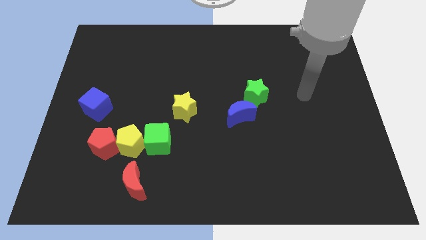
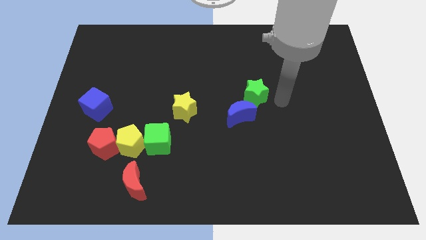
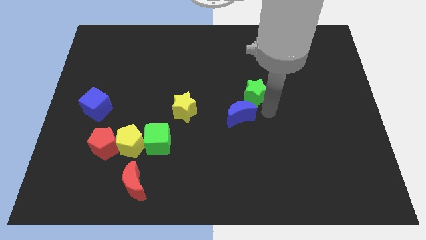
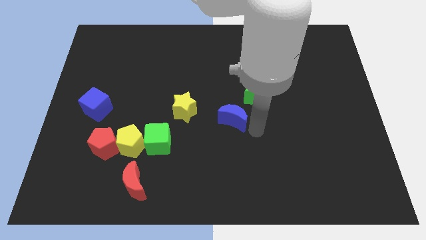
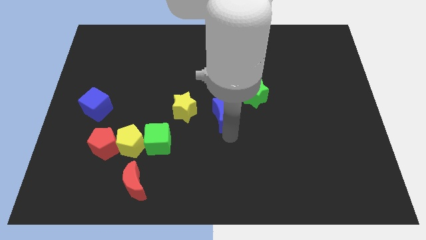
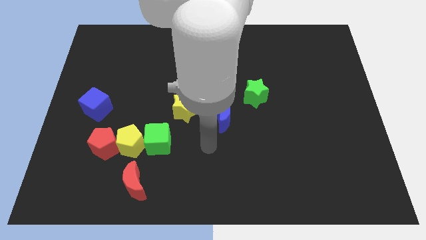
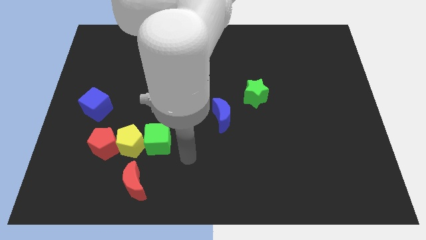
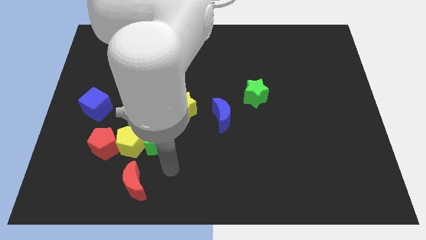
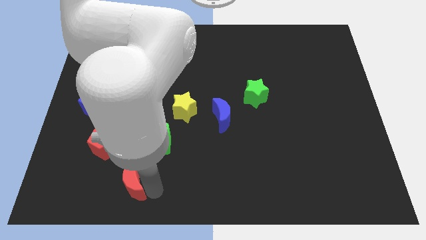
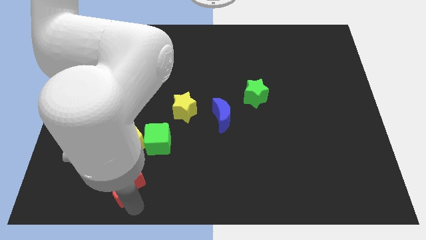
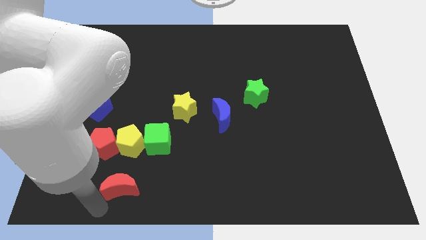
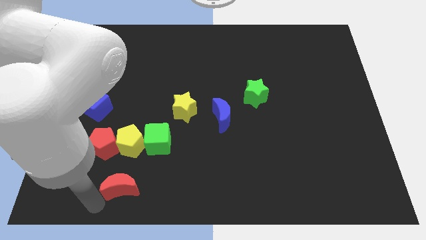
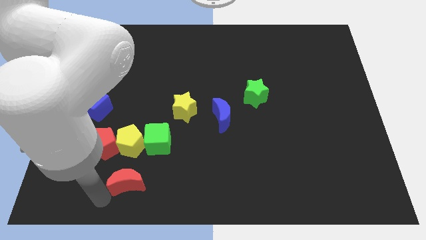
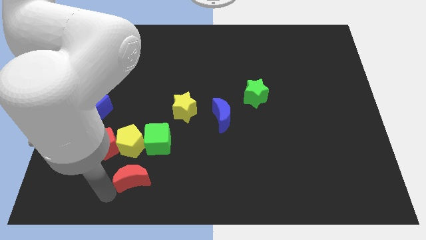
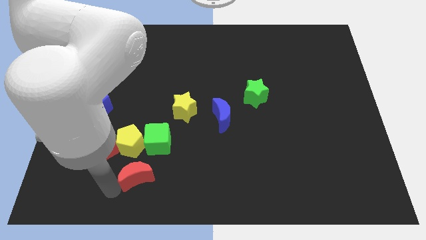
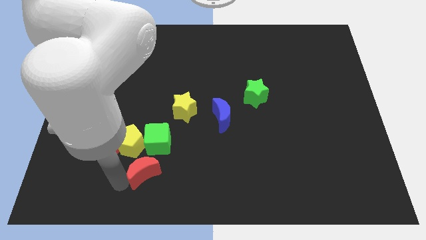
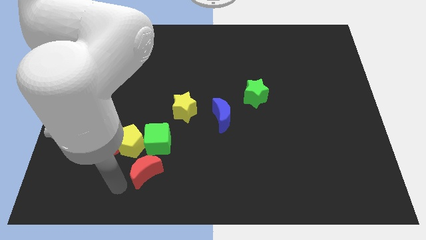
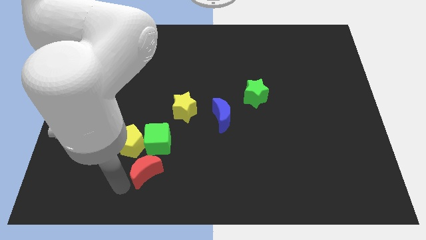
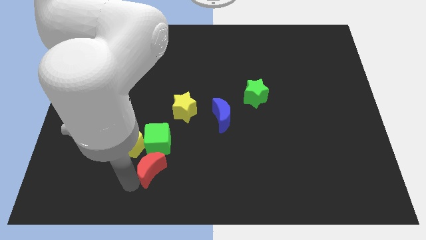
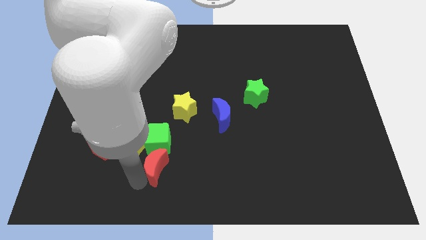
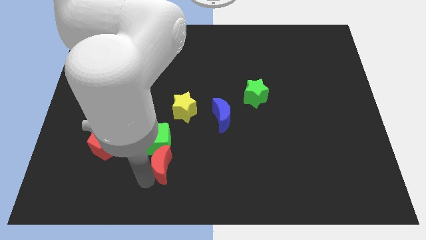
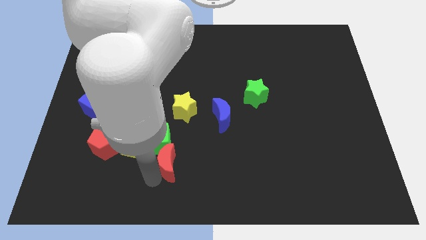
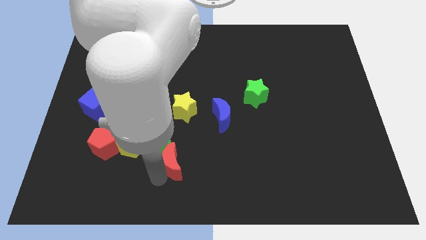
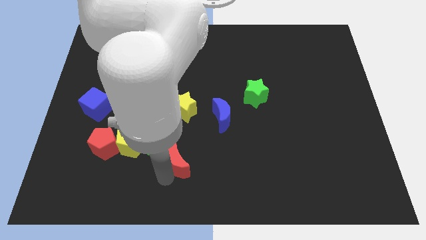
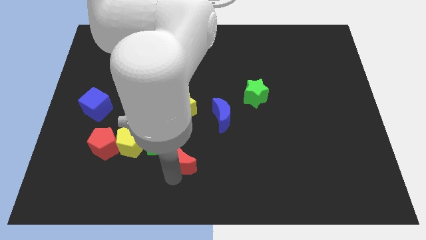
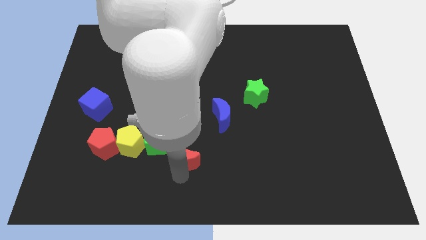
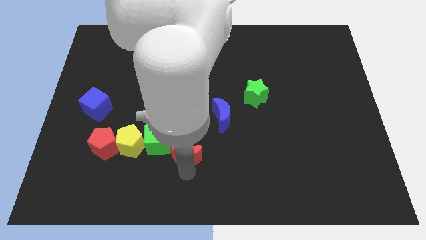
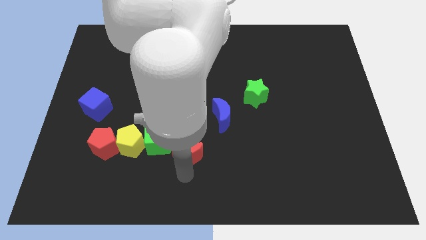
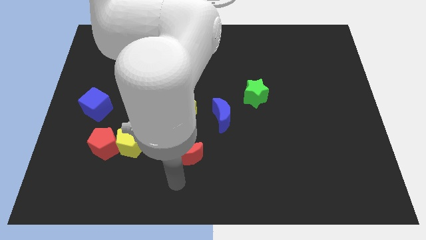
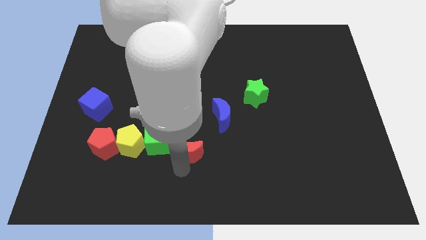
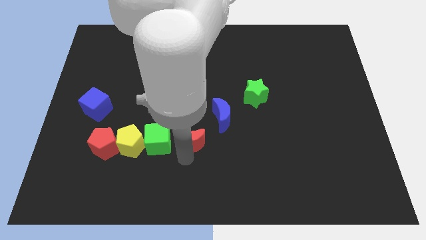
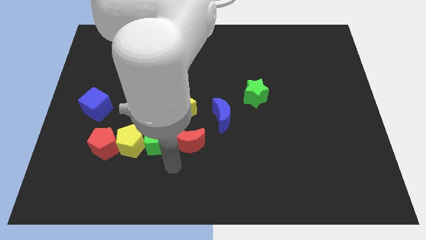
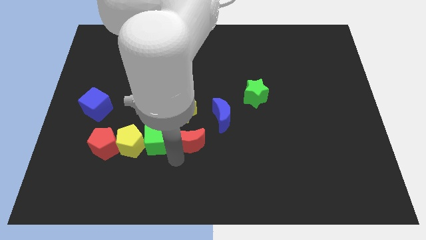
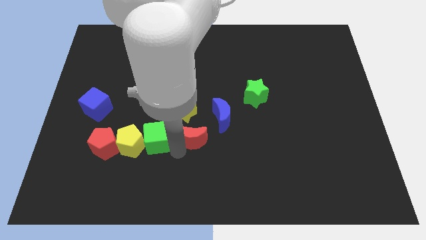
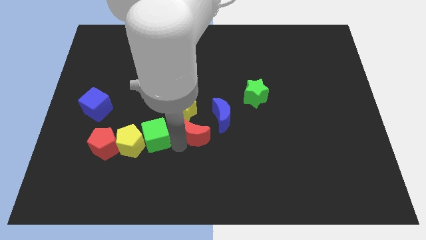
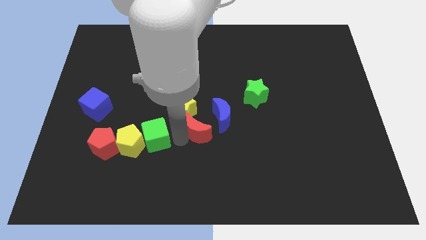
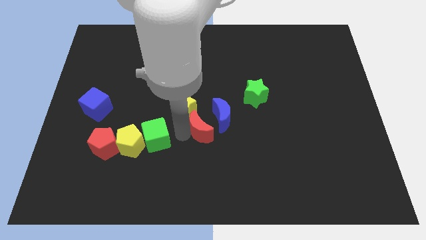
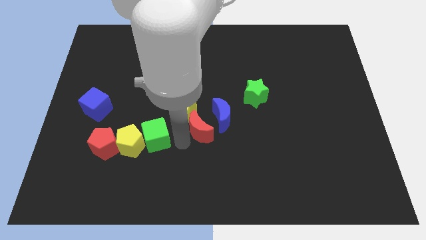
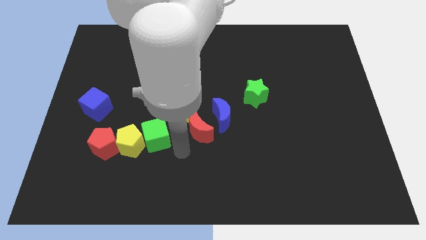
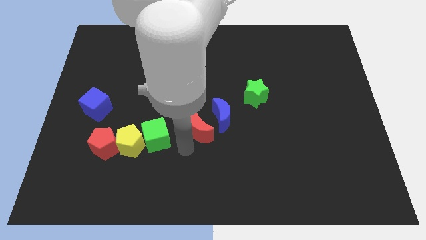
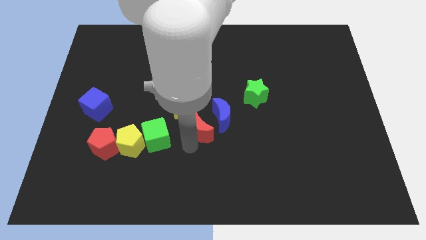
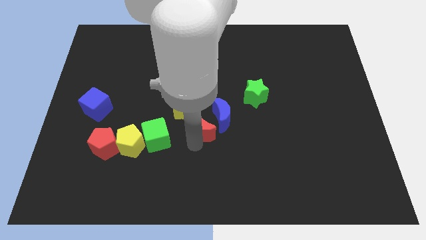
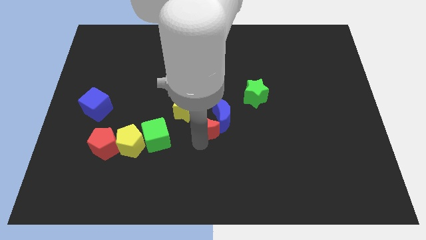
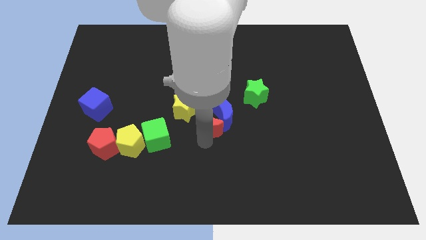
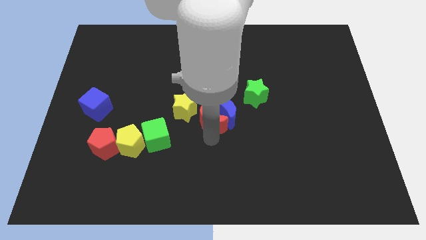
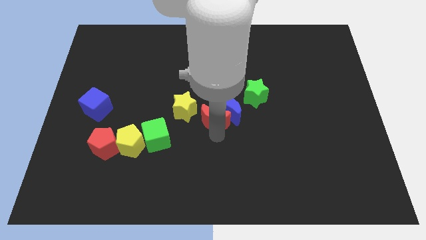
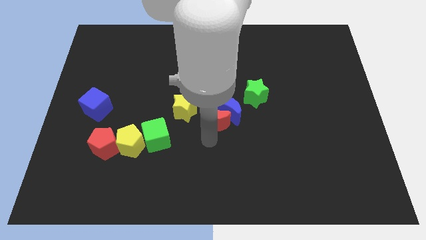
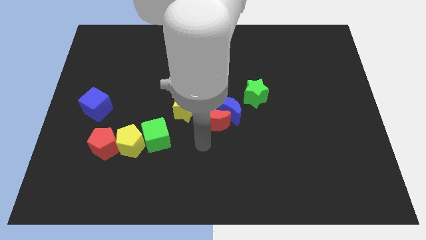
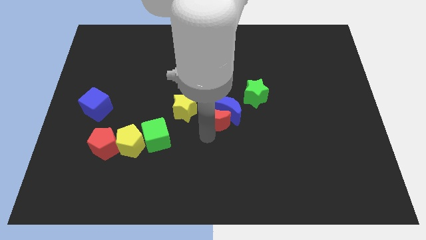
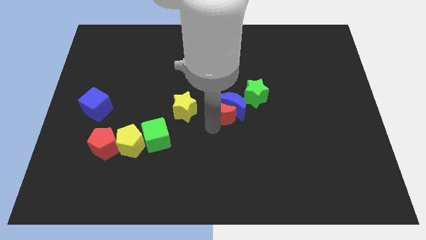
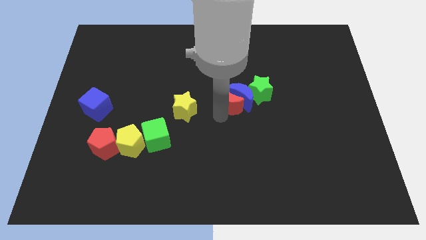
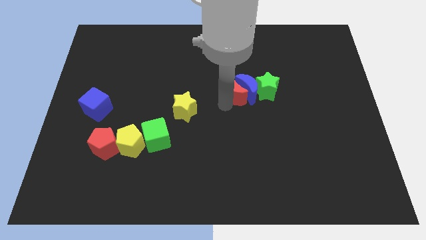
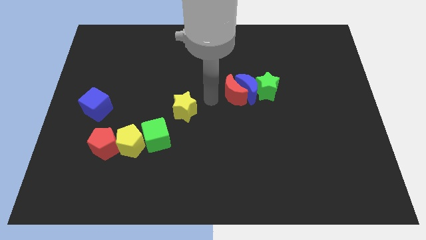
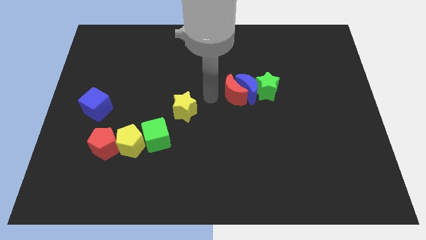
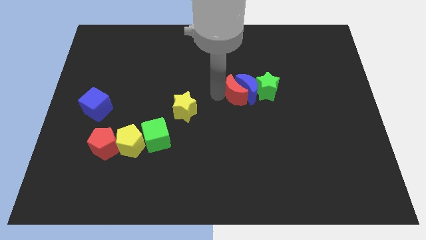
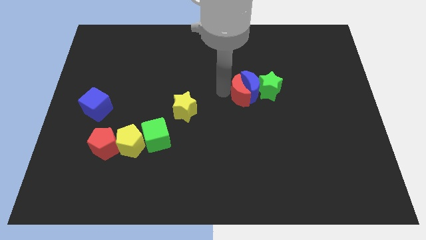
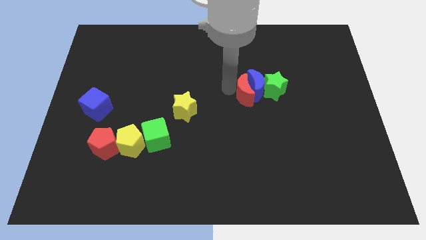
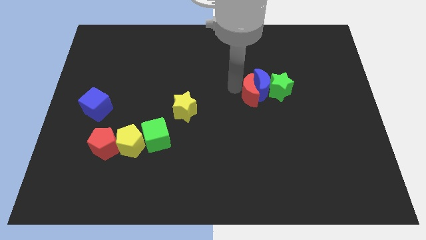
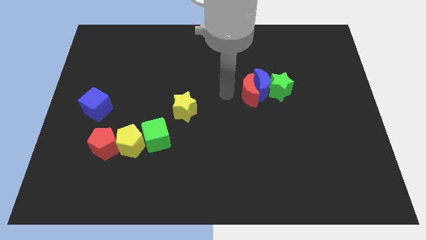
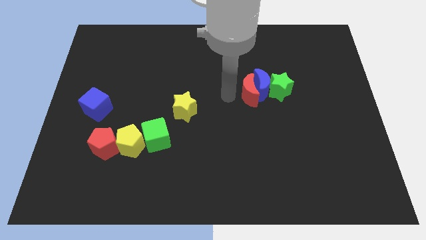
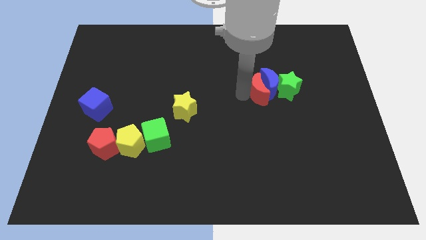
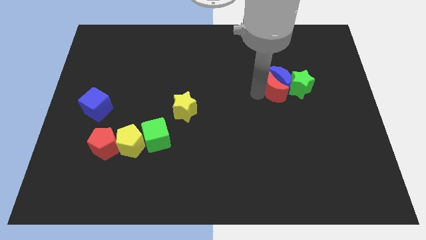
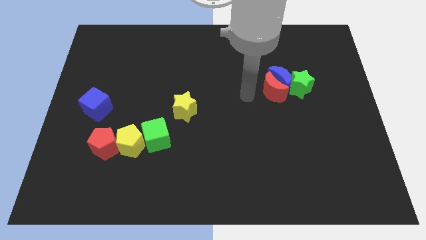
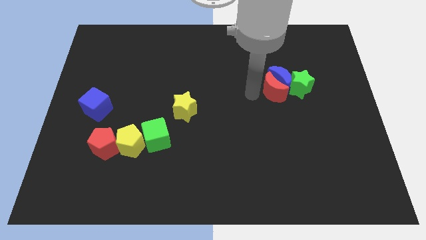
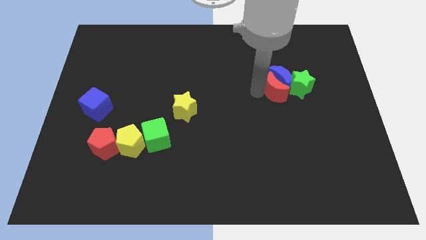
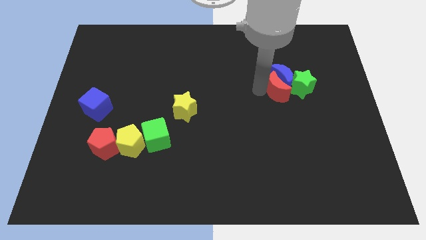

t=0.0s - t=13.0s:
push the red moon next to the green star

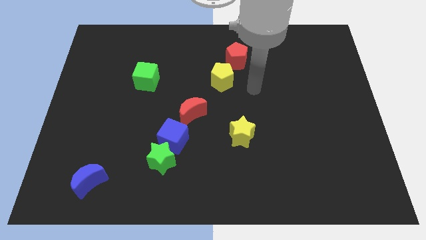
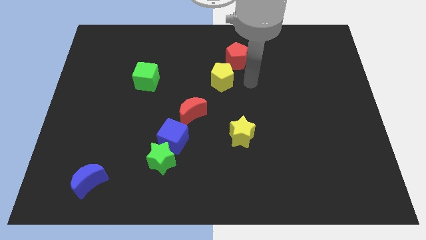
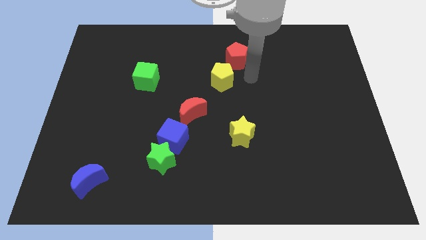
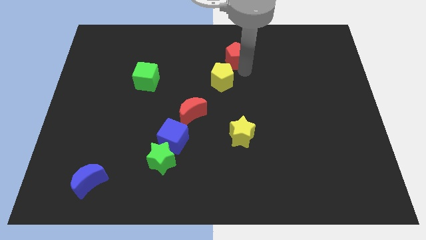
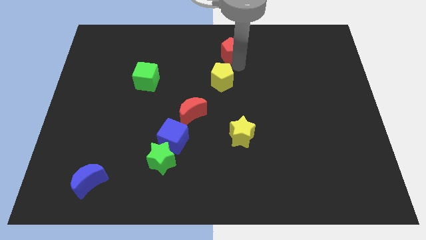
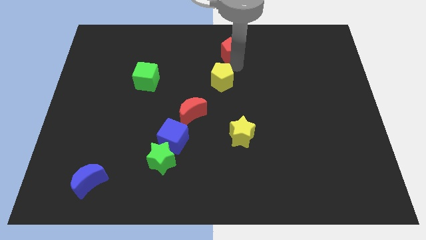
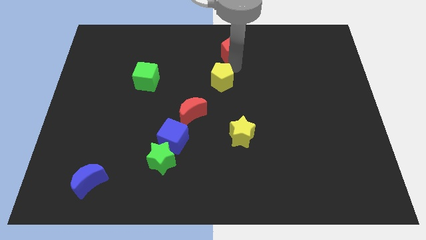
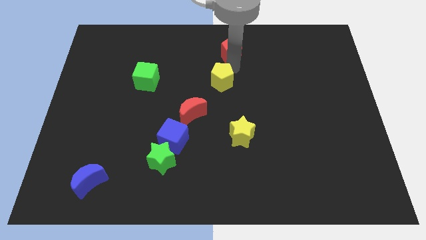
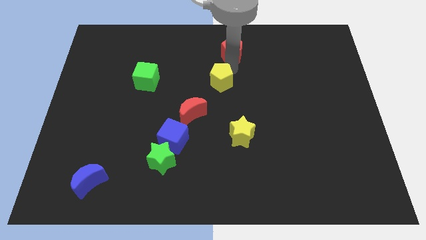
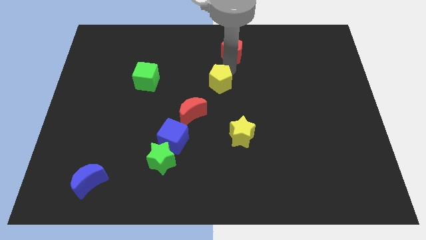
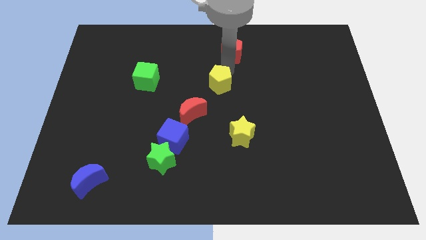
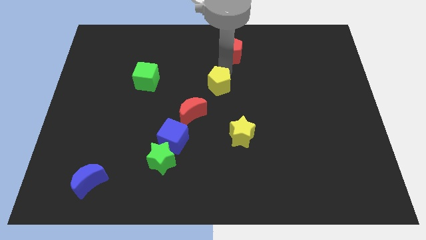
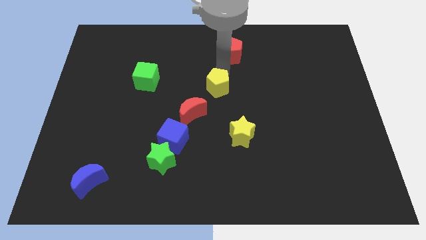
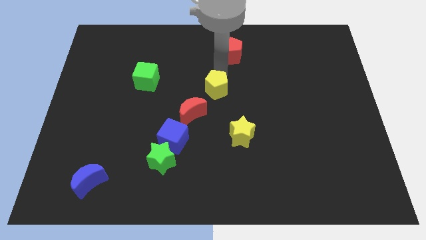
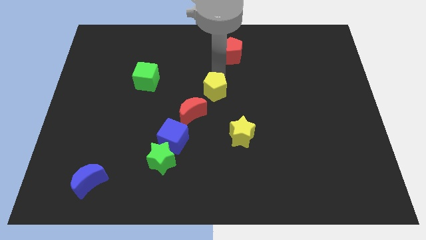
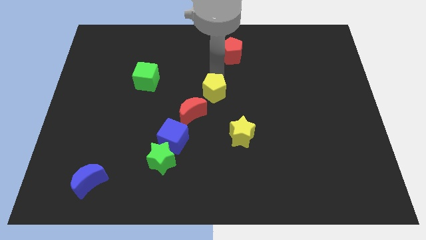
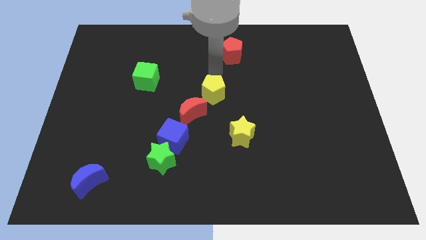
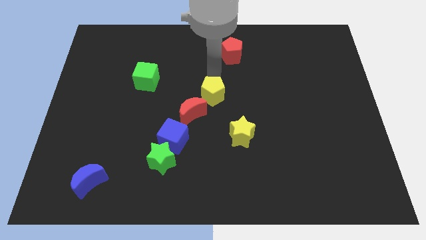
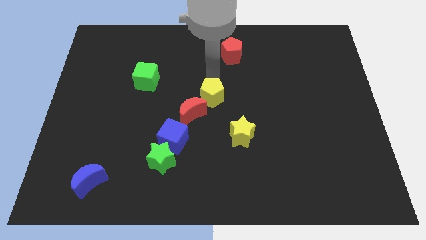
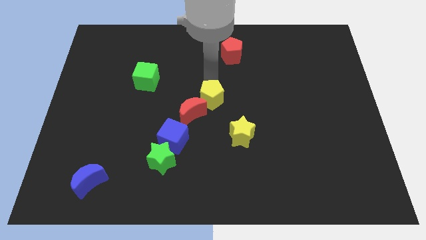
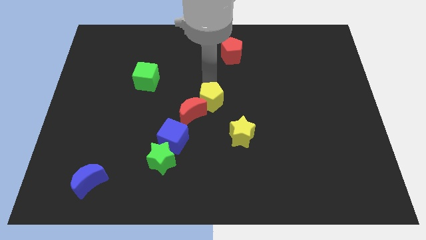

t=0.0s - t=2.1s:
put the yellow pentagon towards the red moon
